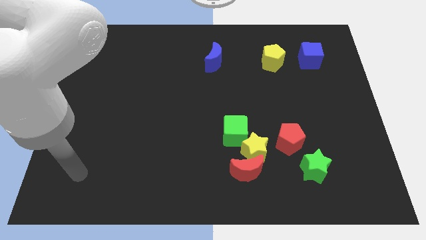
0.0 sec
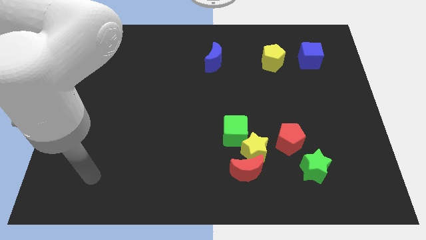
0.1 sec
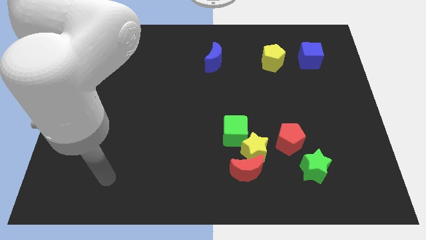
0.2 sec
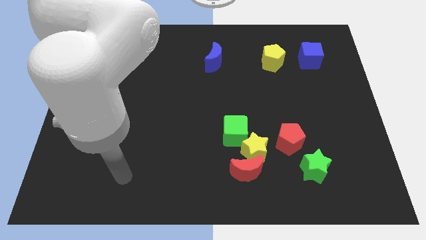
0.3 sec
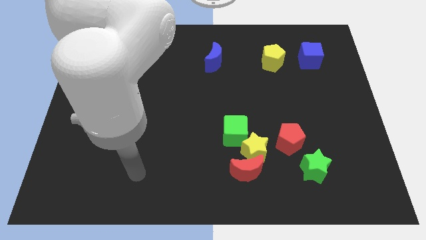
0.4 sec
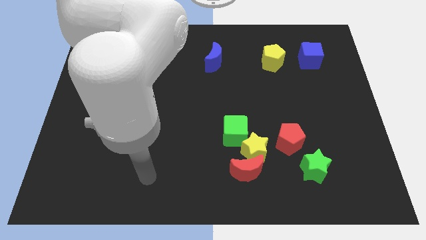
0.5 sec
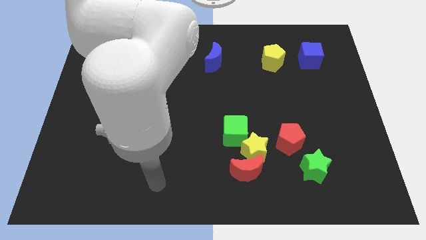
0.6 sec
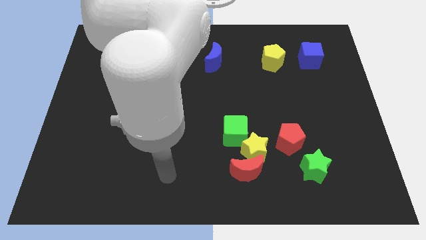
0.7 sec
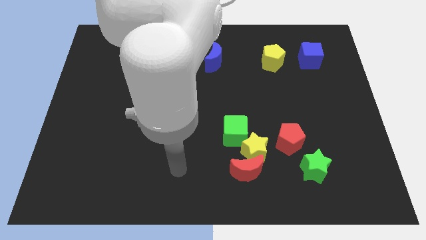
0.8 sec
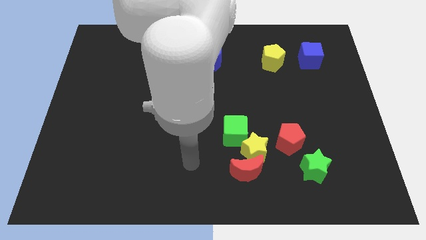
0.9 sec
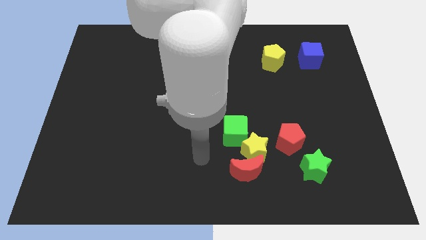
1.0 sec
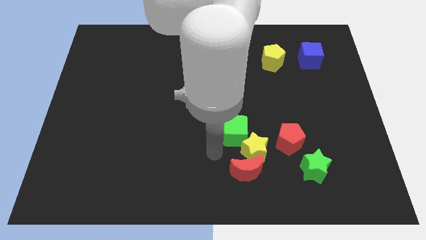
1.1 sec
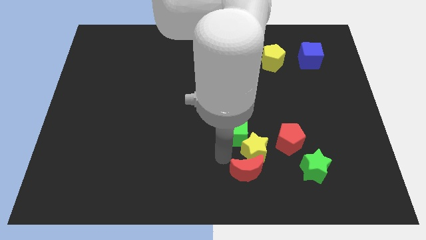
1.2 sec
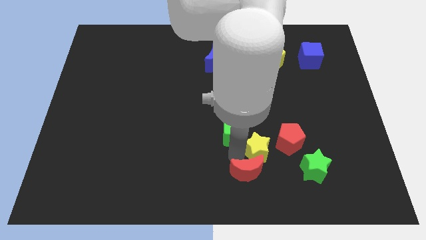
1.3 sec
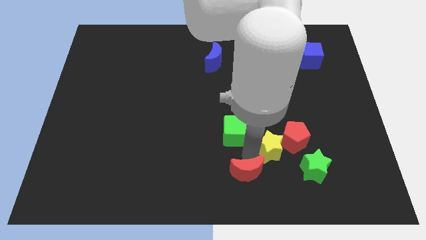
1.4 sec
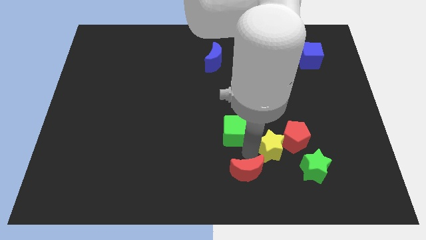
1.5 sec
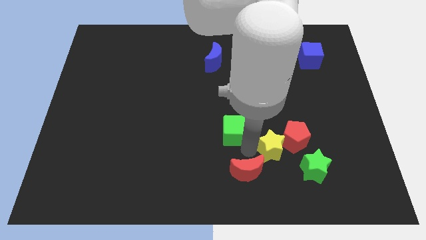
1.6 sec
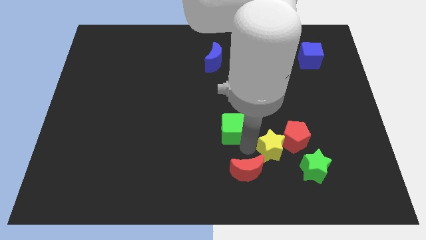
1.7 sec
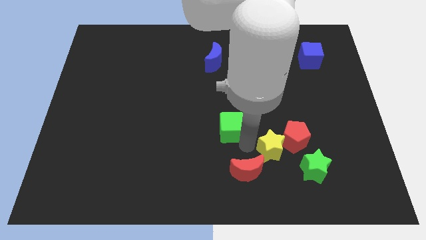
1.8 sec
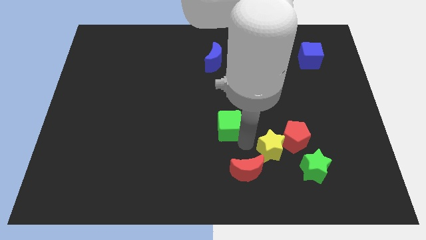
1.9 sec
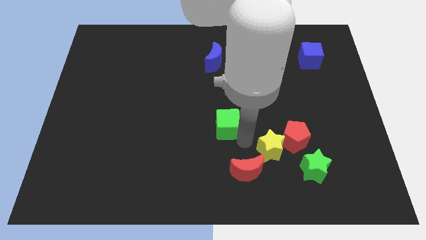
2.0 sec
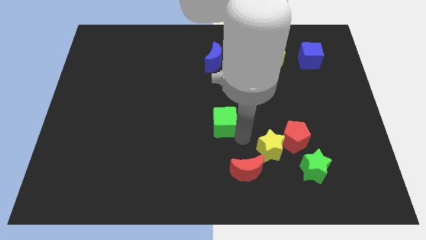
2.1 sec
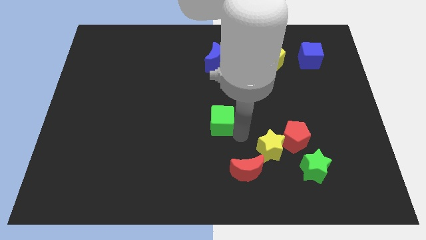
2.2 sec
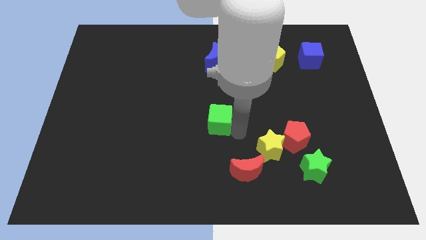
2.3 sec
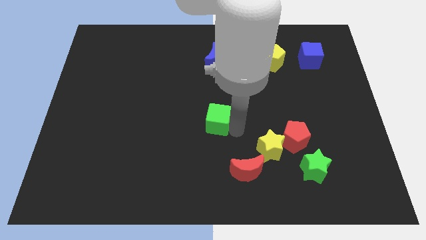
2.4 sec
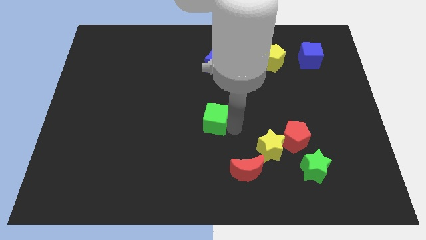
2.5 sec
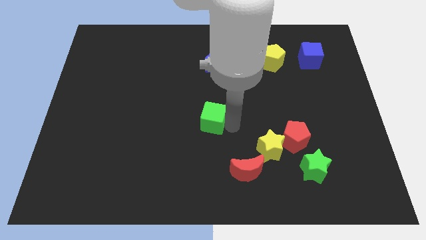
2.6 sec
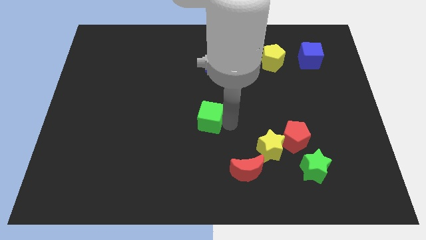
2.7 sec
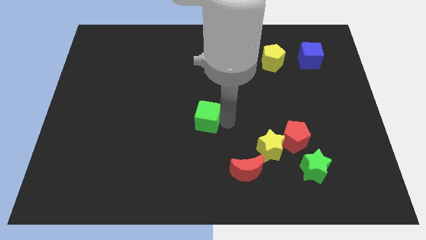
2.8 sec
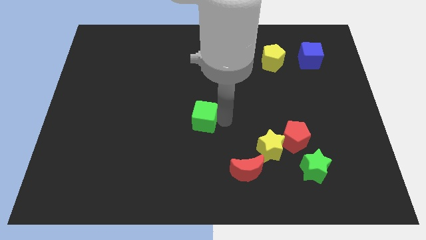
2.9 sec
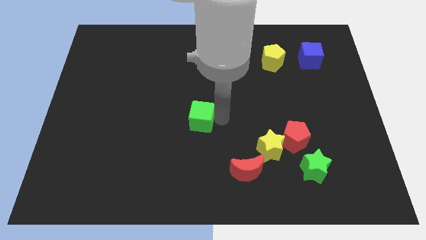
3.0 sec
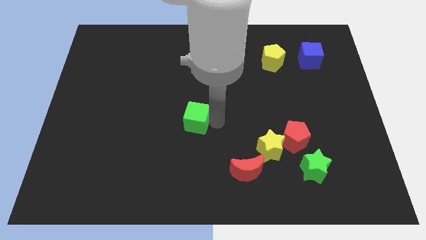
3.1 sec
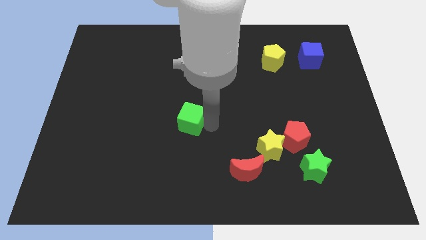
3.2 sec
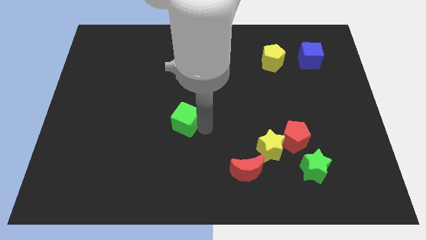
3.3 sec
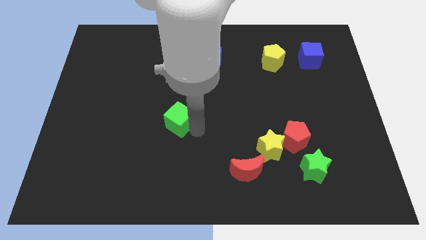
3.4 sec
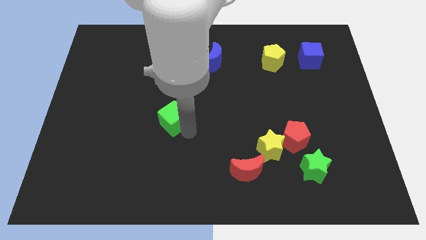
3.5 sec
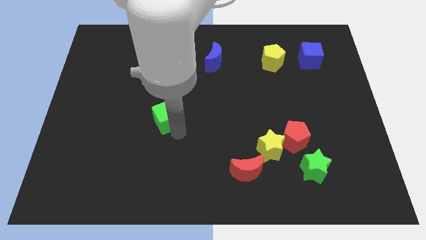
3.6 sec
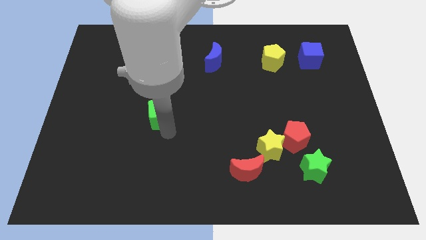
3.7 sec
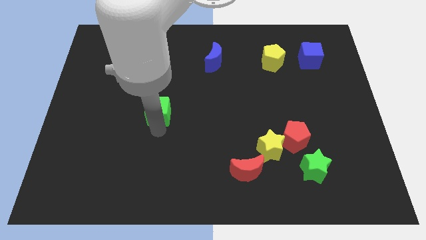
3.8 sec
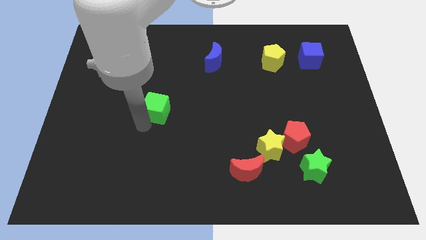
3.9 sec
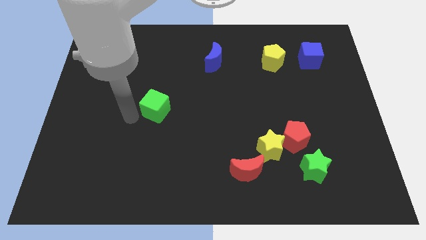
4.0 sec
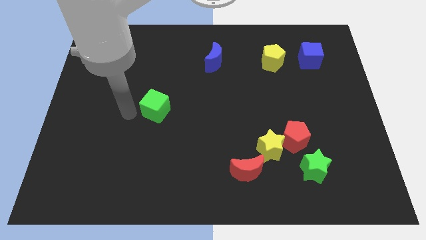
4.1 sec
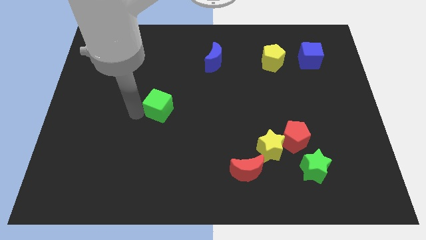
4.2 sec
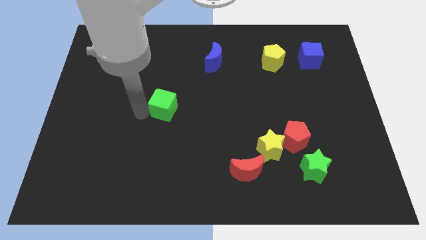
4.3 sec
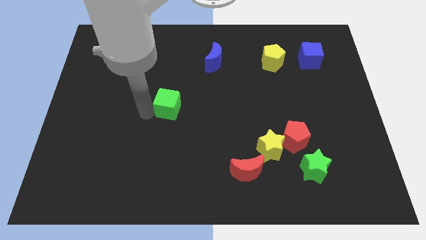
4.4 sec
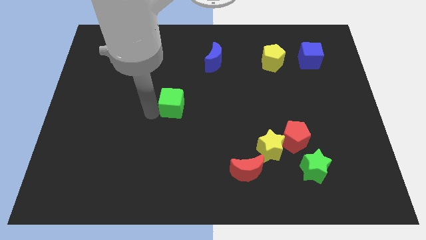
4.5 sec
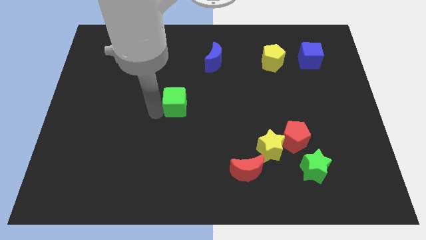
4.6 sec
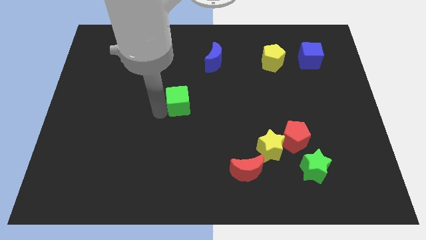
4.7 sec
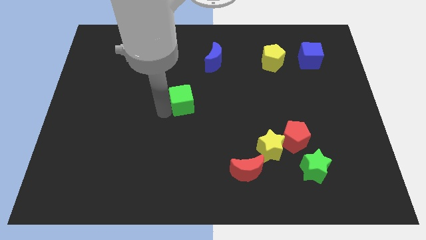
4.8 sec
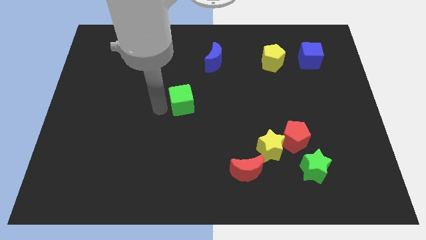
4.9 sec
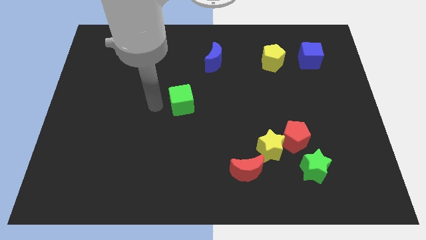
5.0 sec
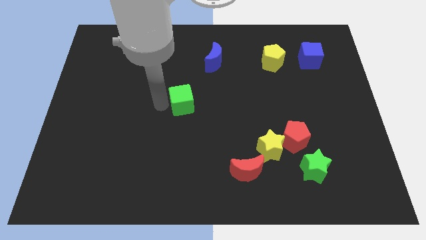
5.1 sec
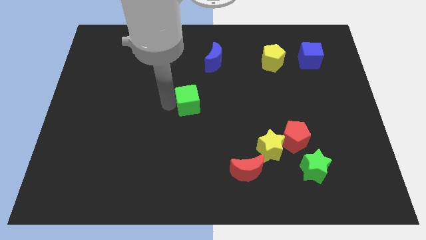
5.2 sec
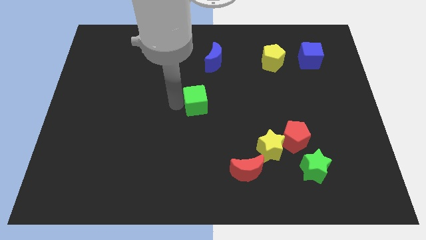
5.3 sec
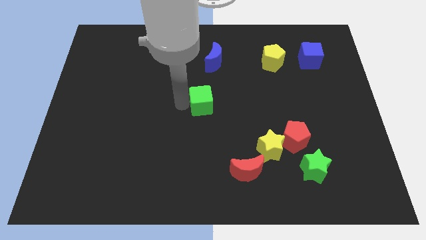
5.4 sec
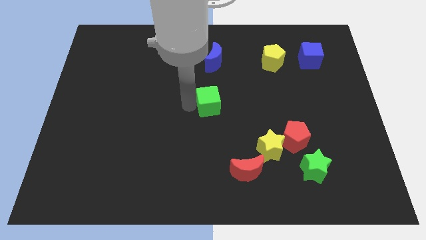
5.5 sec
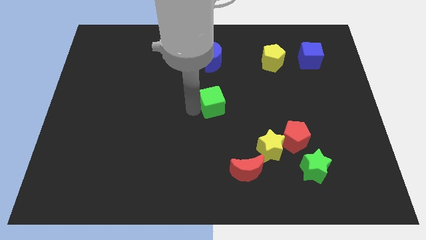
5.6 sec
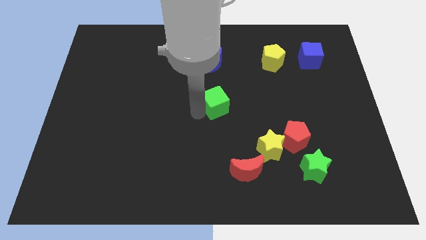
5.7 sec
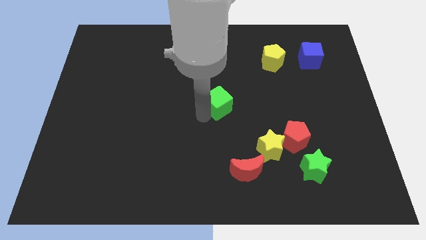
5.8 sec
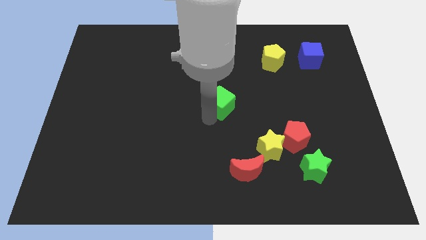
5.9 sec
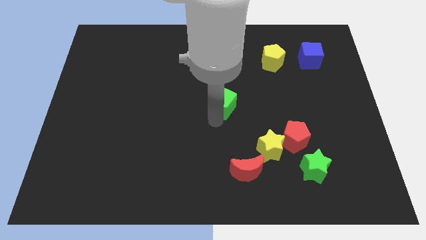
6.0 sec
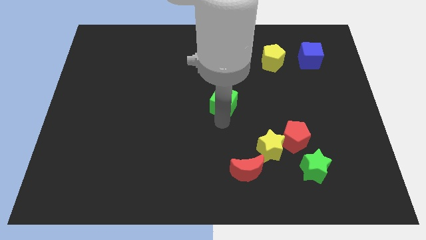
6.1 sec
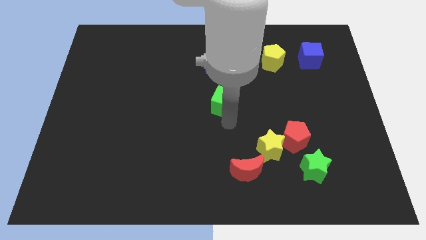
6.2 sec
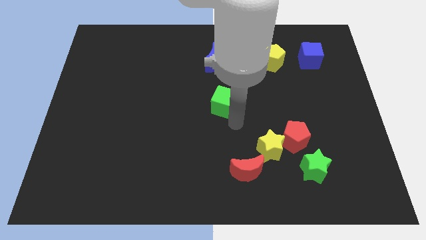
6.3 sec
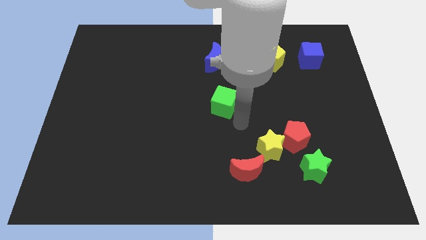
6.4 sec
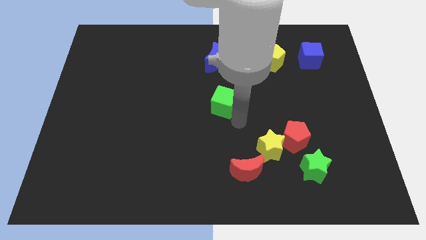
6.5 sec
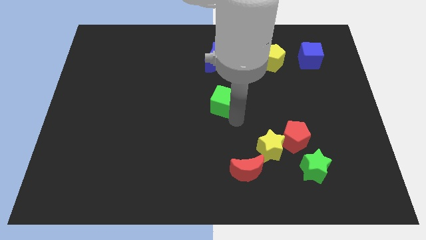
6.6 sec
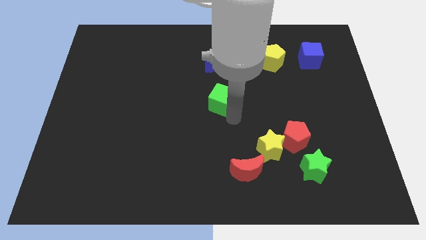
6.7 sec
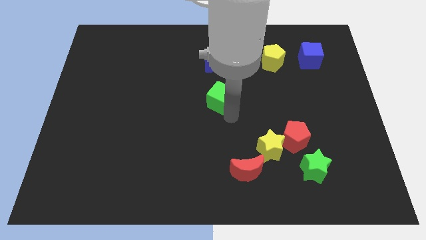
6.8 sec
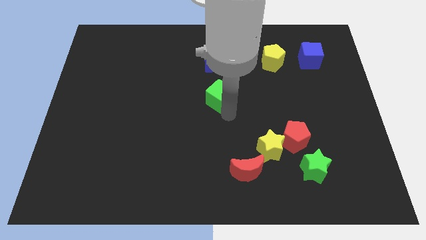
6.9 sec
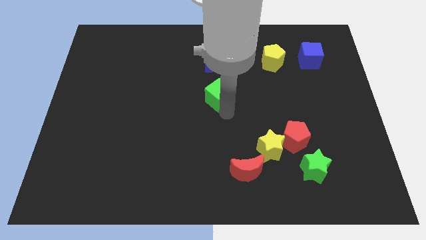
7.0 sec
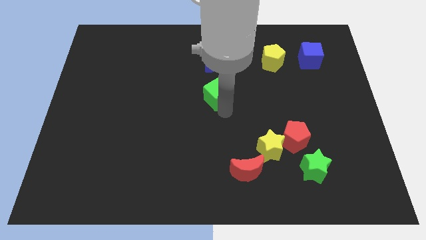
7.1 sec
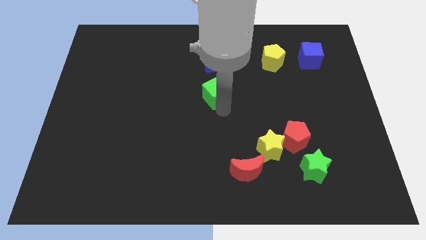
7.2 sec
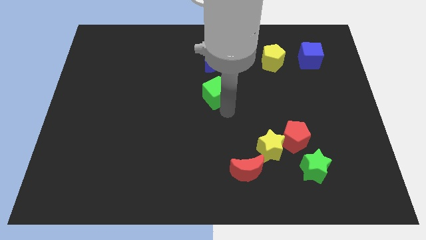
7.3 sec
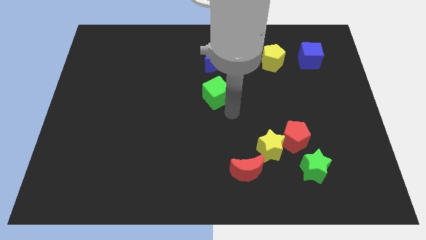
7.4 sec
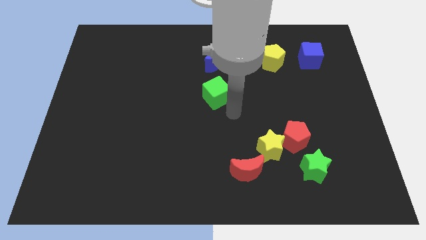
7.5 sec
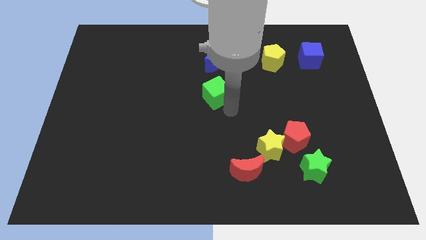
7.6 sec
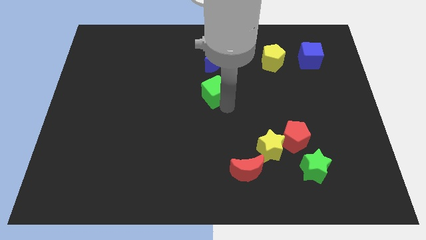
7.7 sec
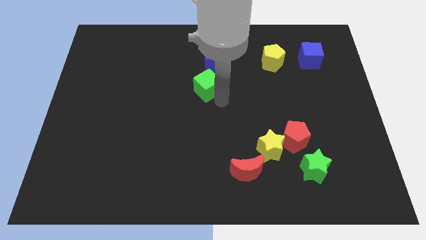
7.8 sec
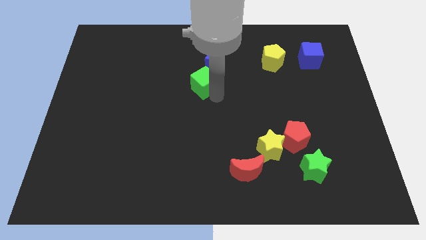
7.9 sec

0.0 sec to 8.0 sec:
move the green cube to the bottom left side of the blue moon

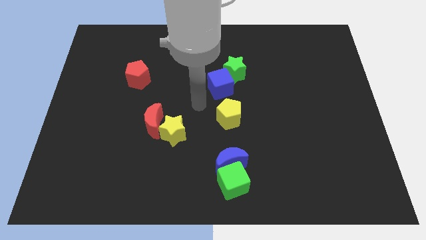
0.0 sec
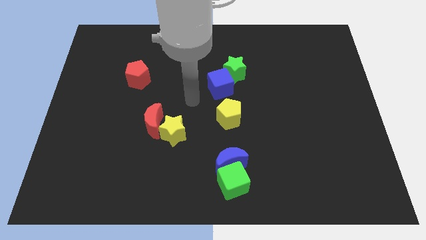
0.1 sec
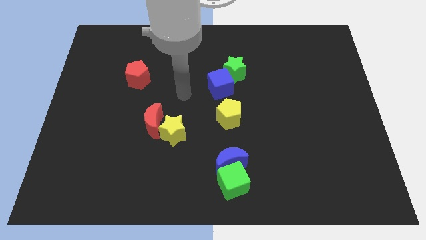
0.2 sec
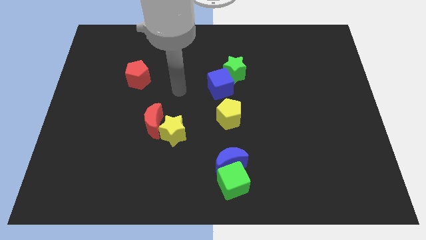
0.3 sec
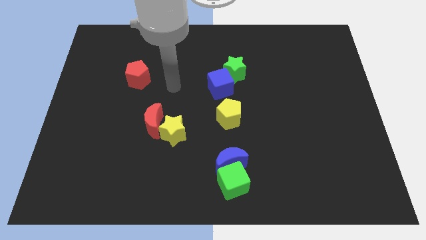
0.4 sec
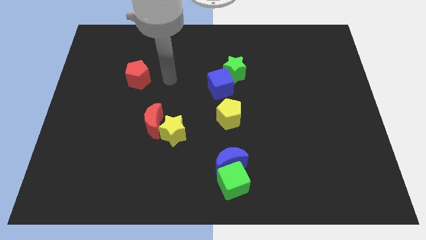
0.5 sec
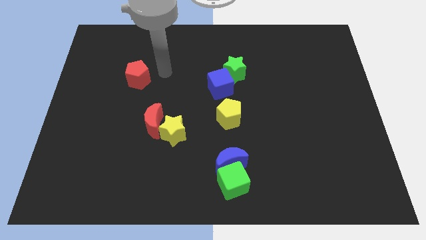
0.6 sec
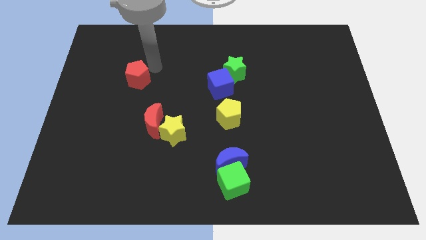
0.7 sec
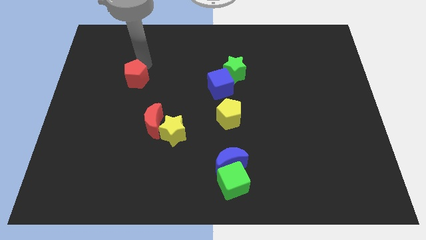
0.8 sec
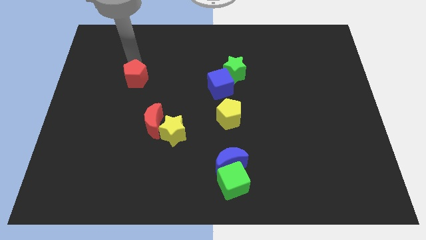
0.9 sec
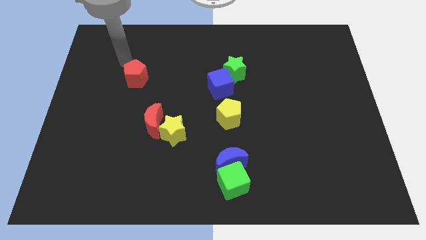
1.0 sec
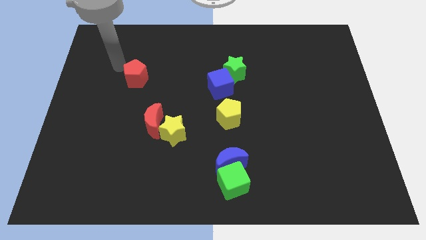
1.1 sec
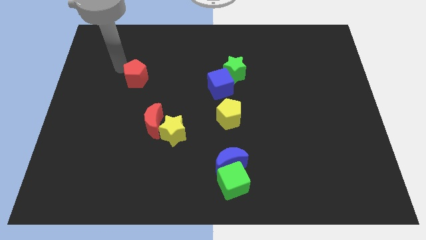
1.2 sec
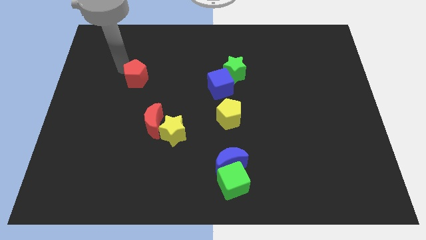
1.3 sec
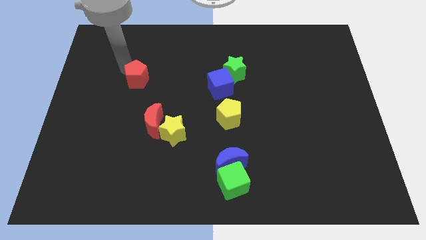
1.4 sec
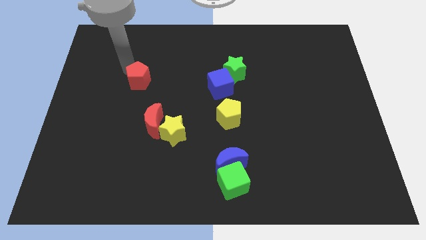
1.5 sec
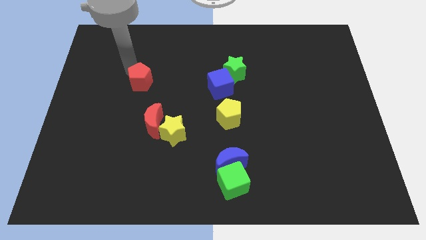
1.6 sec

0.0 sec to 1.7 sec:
move the red pentagon to the top side of the red moon
